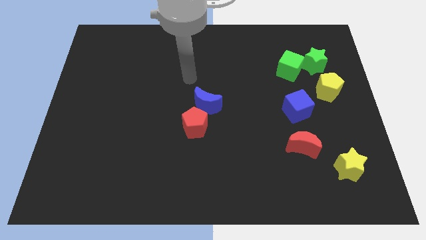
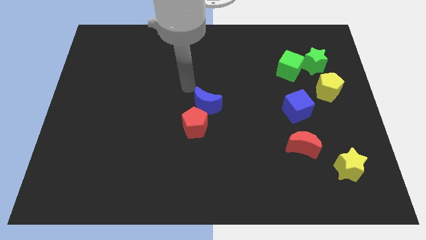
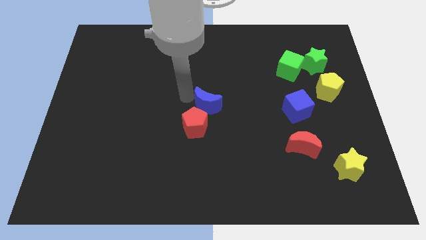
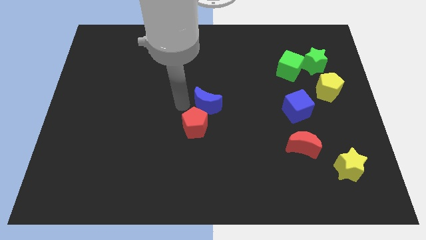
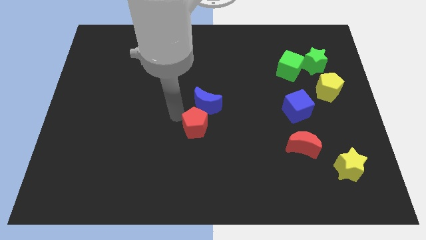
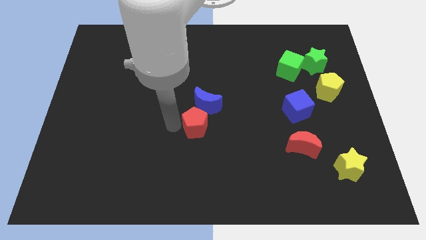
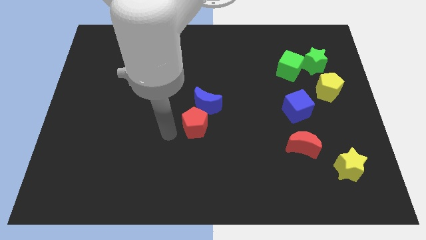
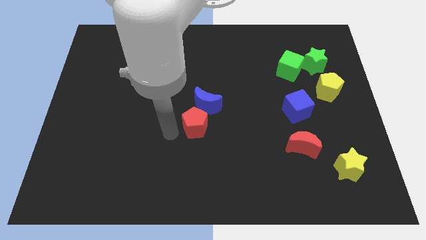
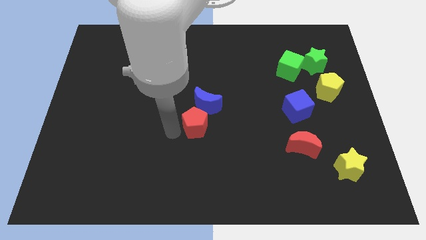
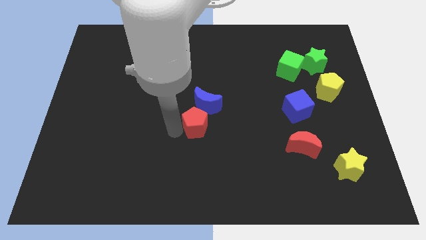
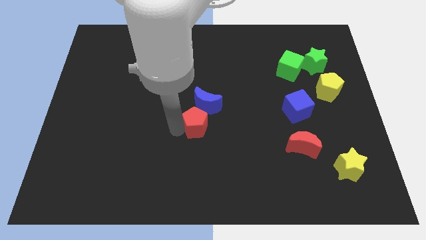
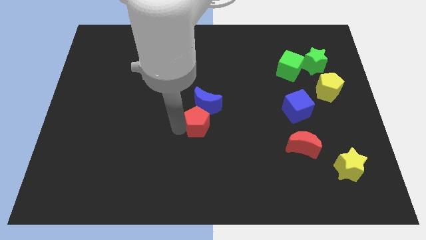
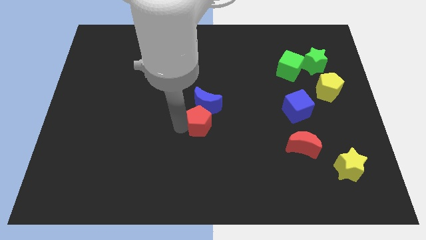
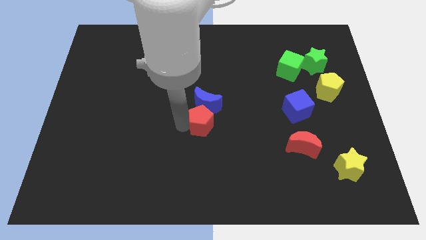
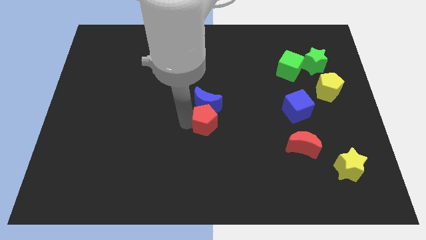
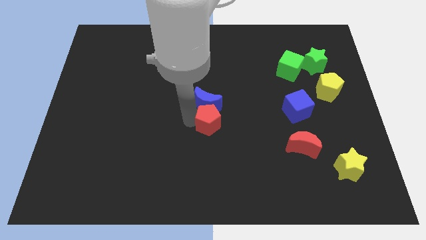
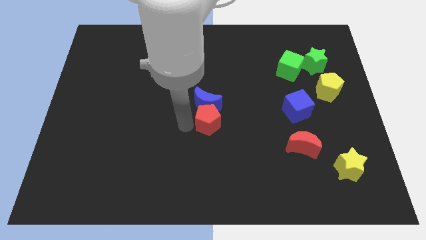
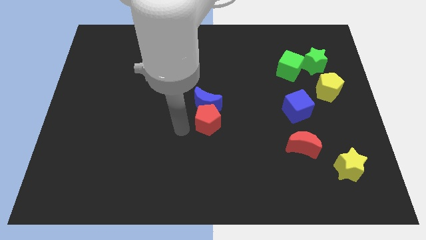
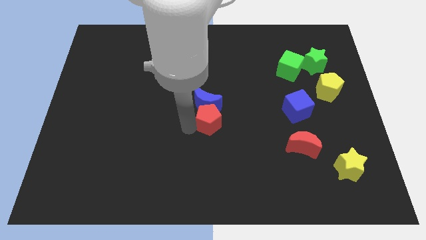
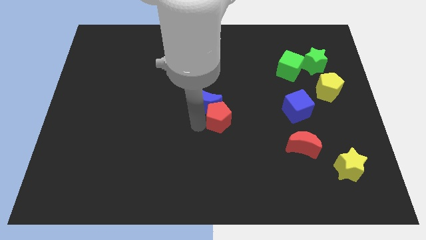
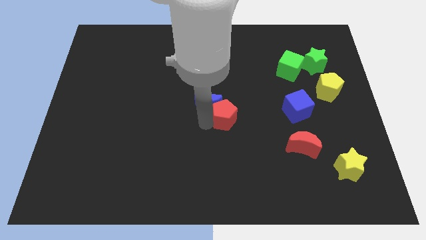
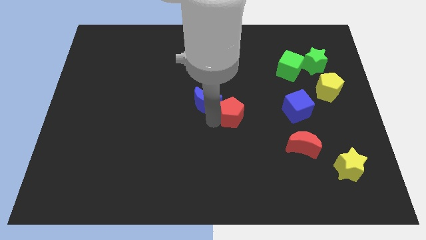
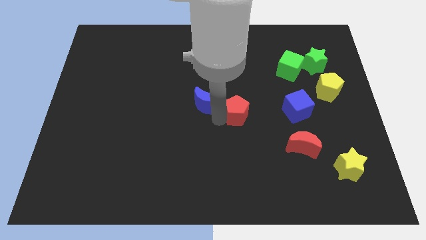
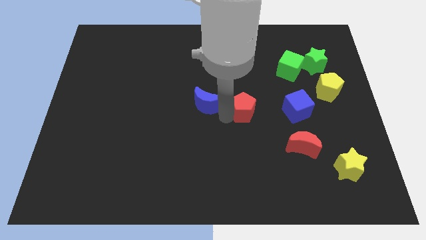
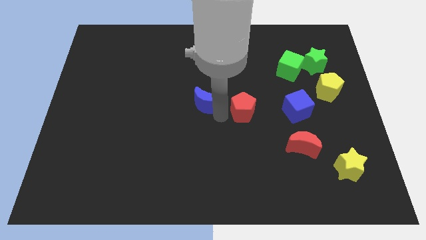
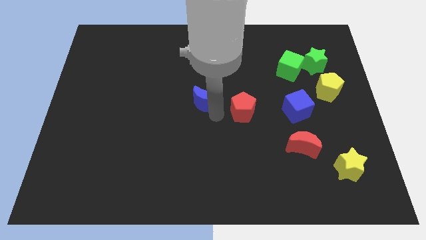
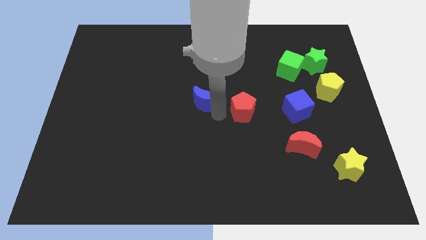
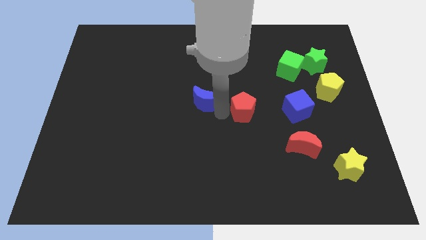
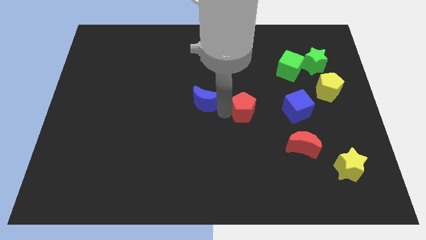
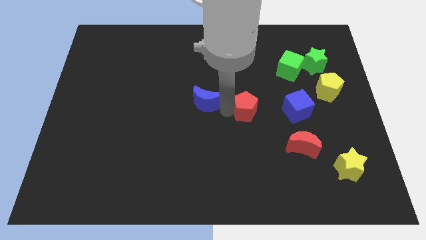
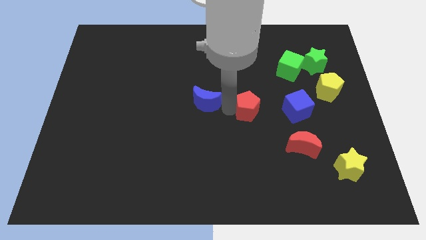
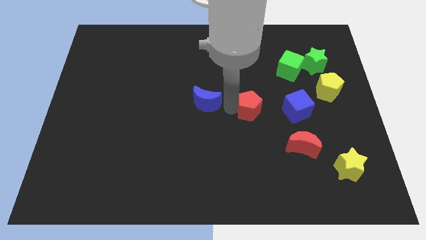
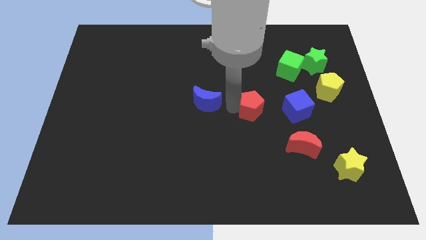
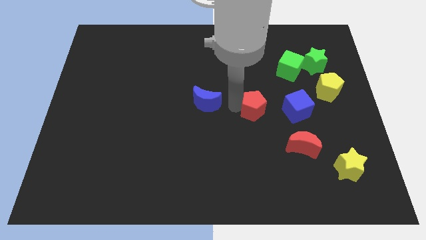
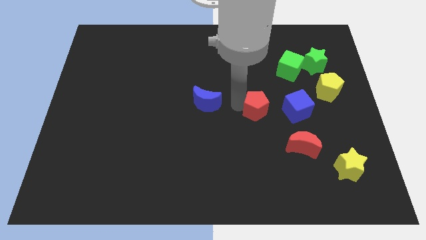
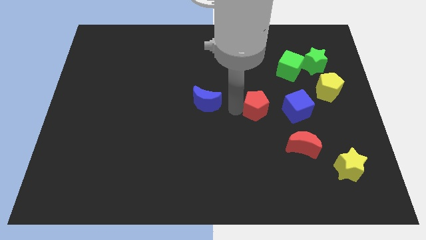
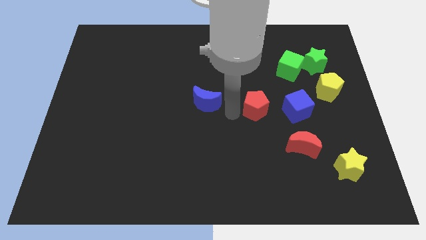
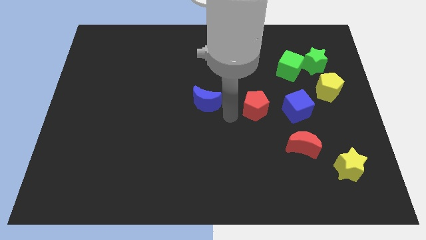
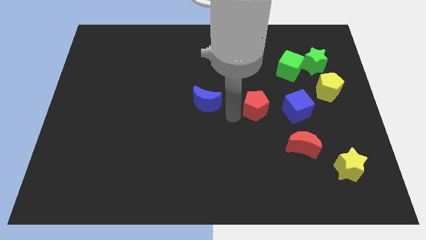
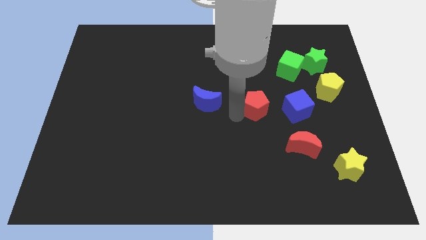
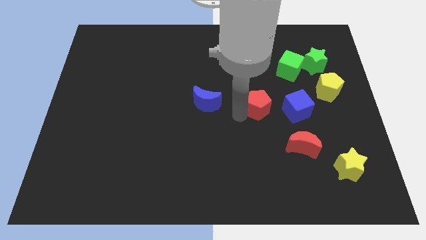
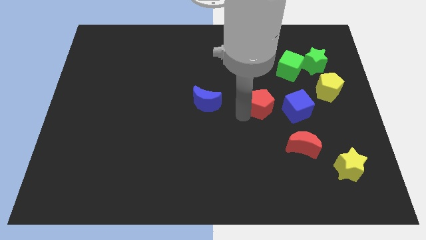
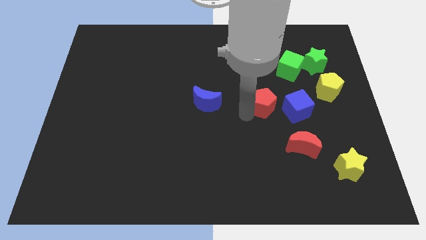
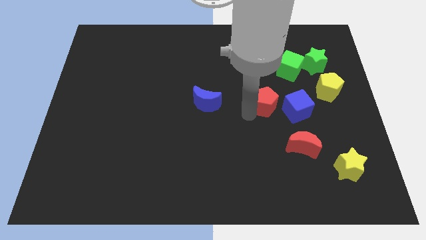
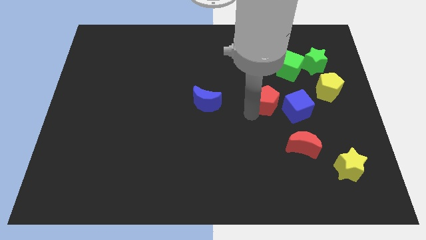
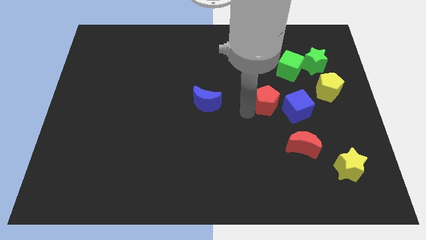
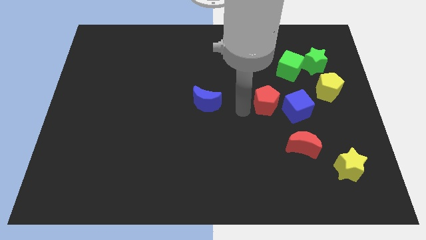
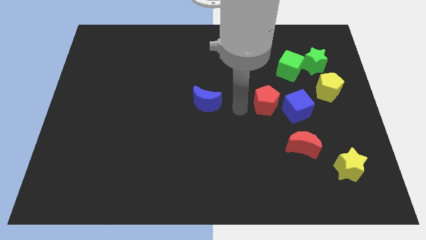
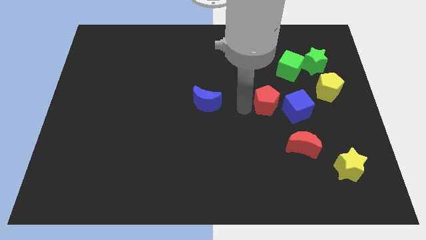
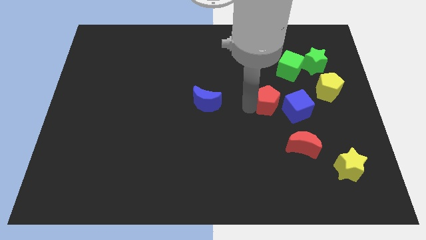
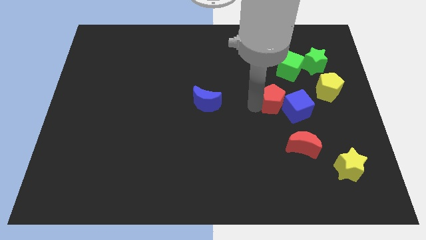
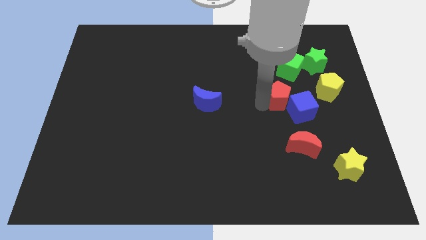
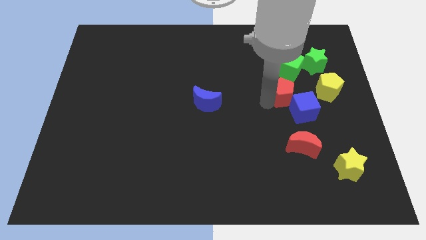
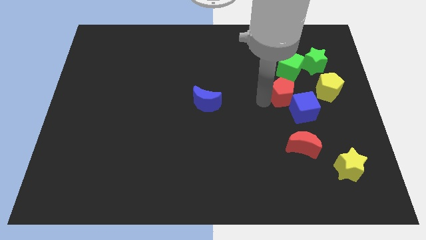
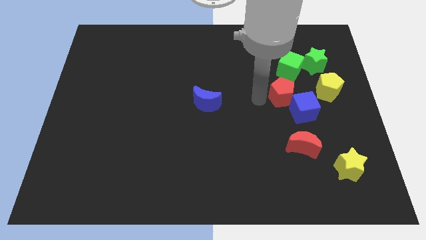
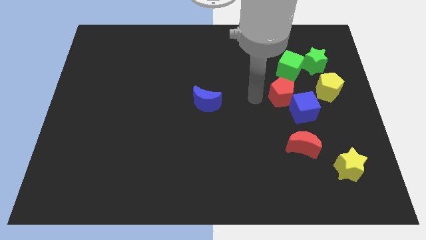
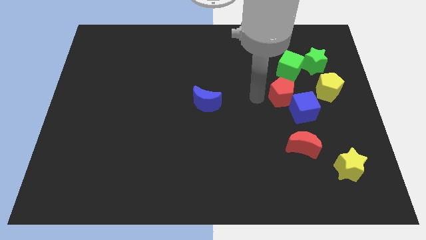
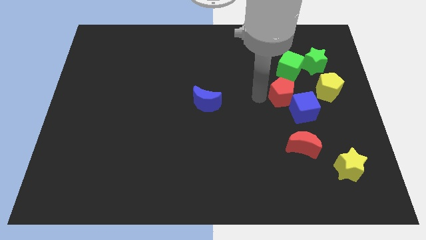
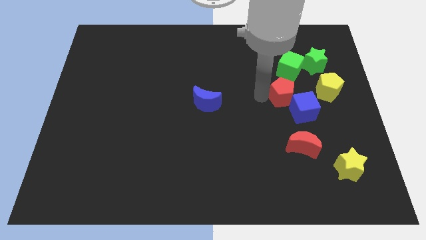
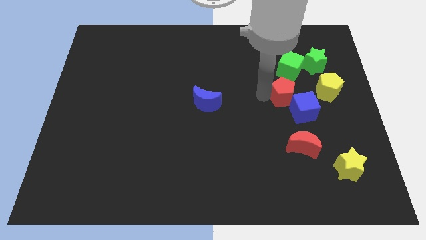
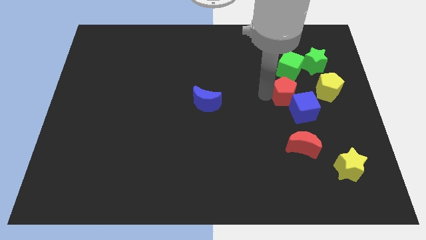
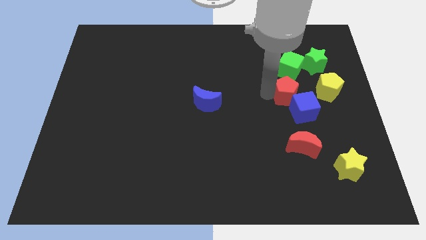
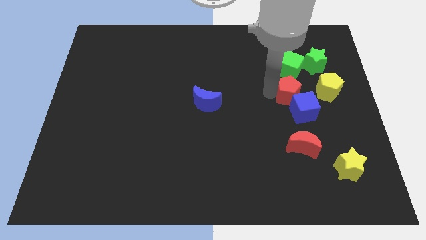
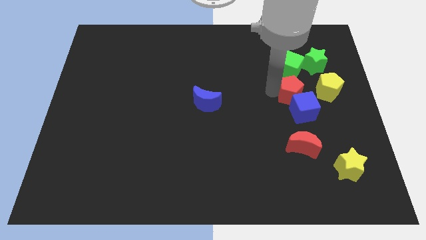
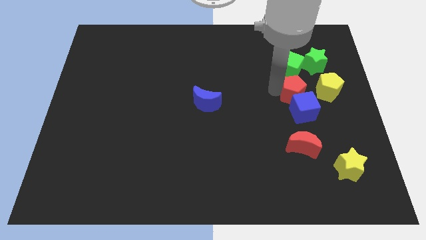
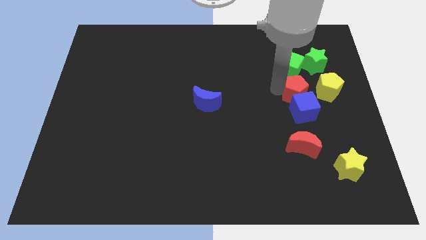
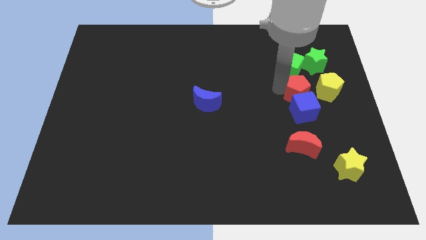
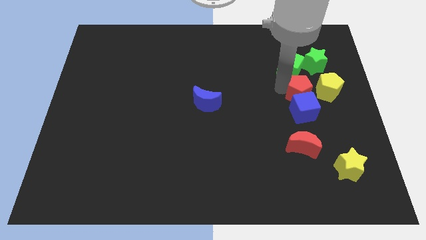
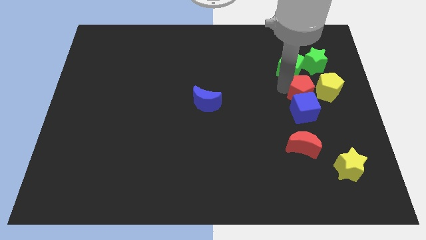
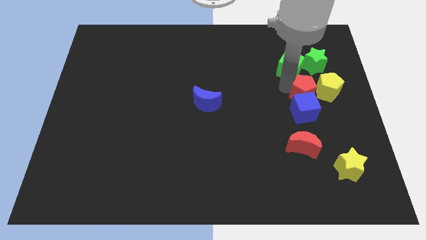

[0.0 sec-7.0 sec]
move the red pentagon towards the yellow pentagon
